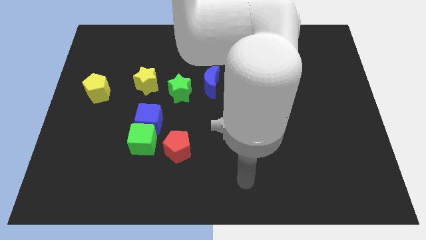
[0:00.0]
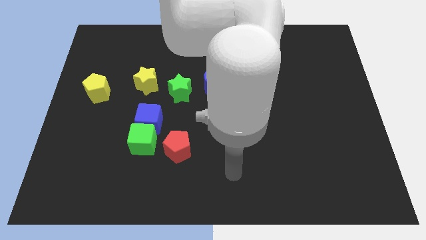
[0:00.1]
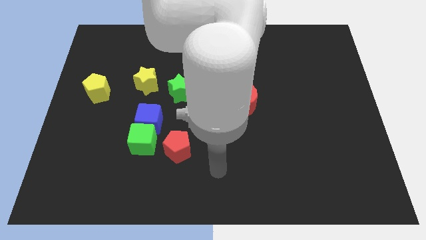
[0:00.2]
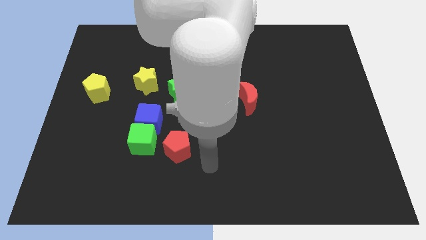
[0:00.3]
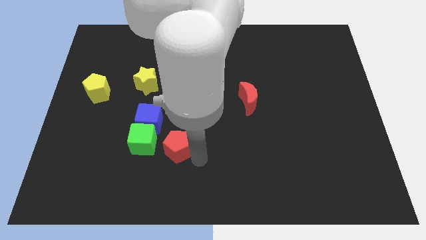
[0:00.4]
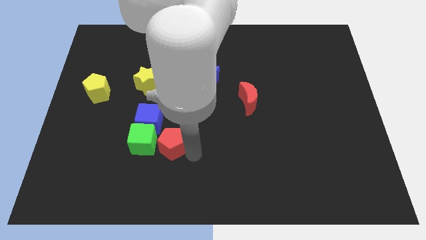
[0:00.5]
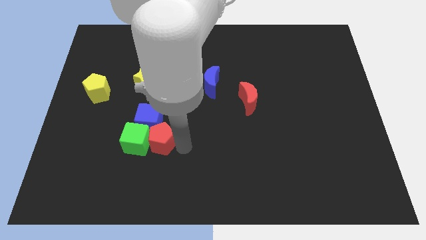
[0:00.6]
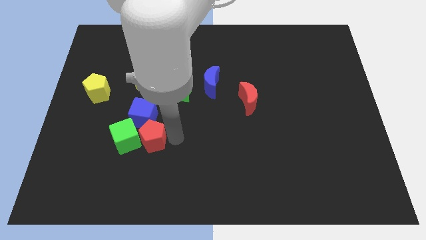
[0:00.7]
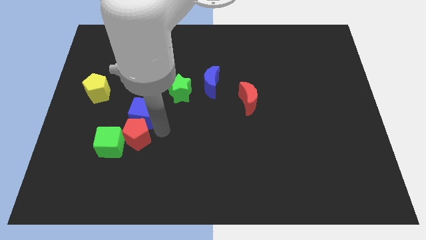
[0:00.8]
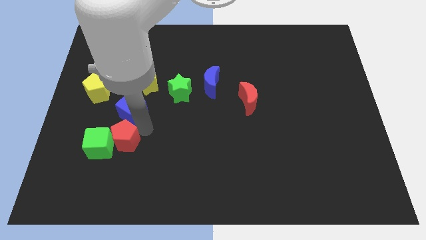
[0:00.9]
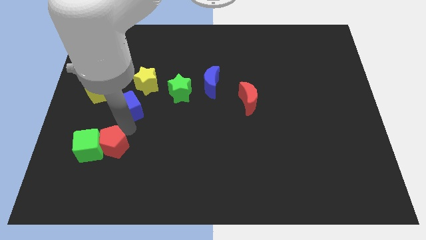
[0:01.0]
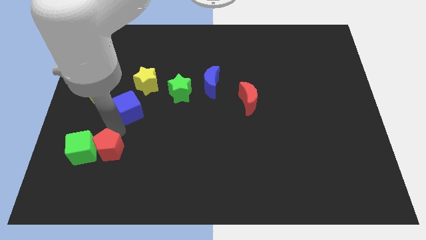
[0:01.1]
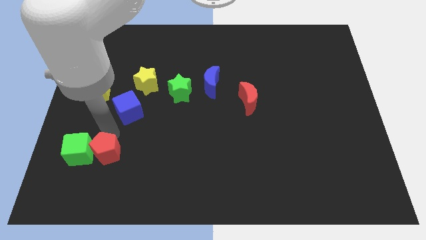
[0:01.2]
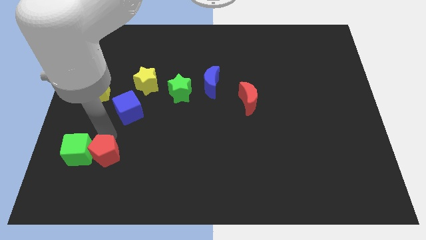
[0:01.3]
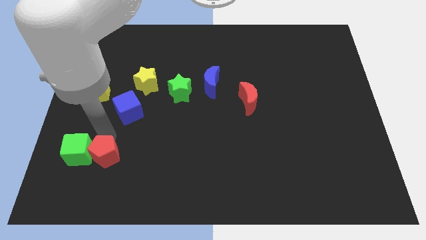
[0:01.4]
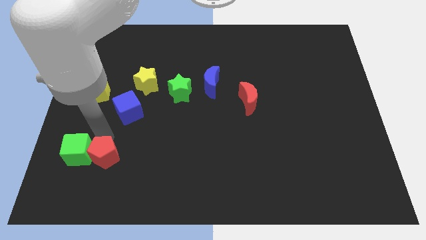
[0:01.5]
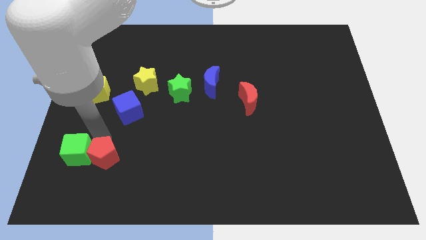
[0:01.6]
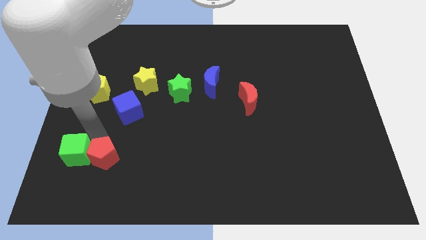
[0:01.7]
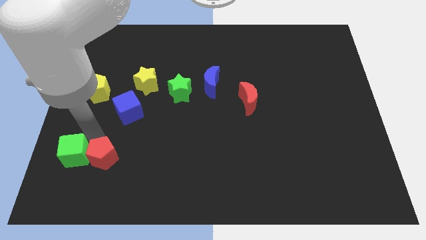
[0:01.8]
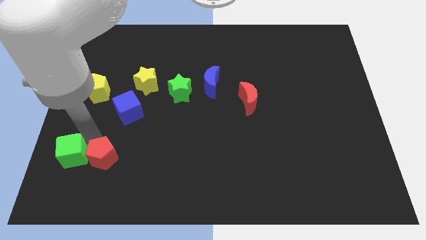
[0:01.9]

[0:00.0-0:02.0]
separate the green cube from the blue cube and red pentagon

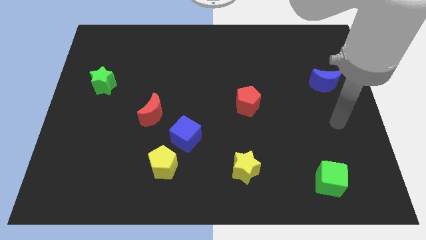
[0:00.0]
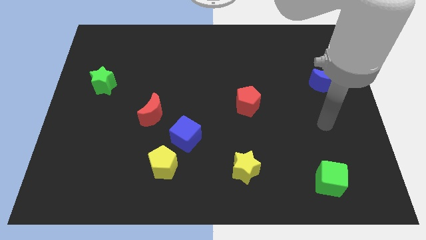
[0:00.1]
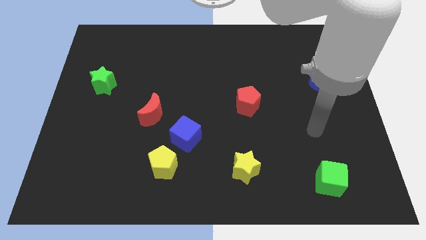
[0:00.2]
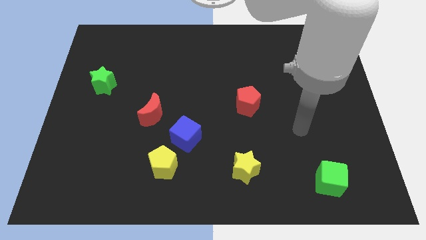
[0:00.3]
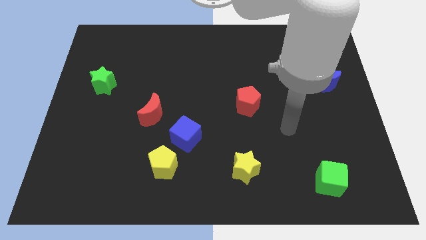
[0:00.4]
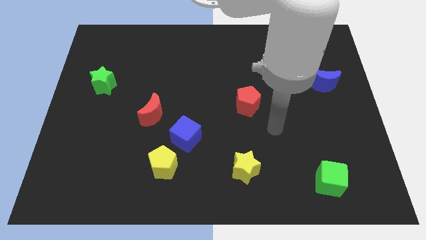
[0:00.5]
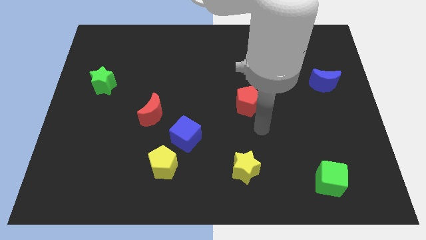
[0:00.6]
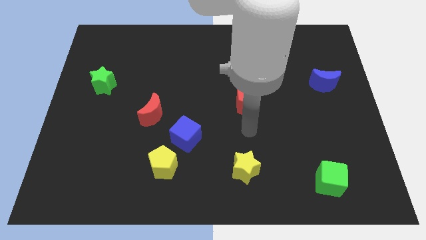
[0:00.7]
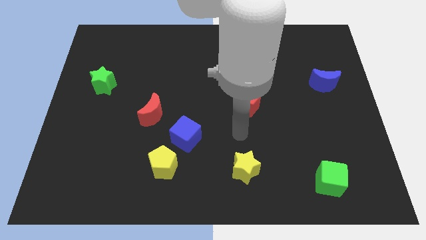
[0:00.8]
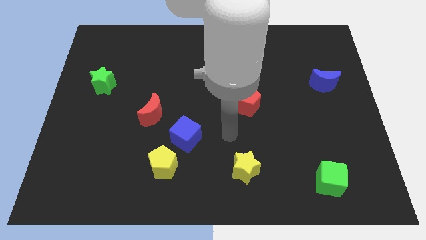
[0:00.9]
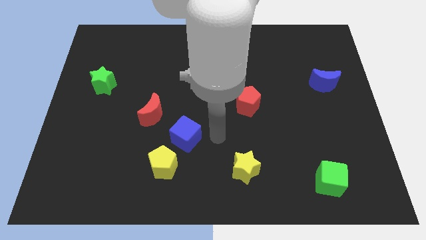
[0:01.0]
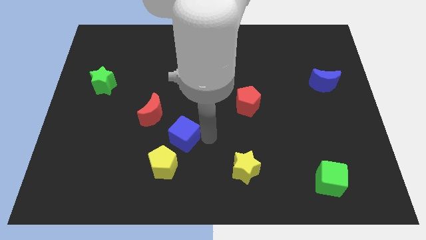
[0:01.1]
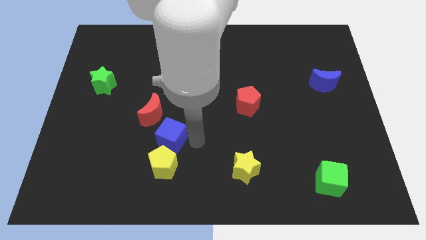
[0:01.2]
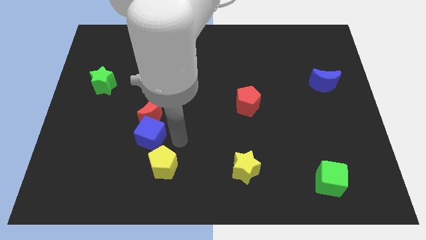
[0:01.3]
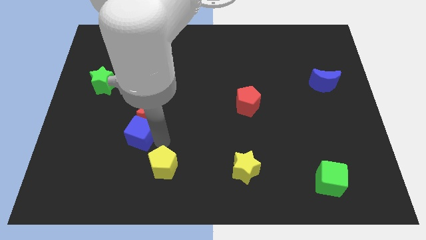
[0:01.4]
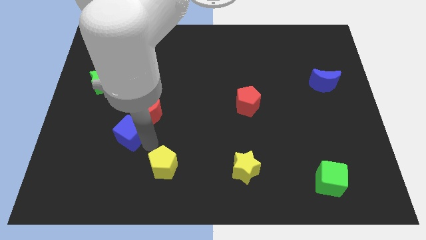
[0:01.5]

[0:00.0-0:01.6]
move the yellow pentagon away from the blue cube

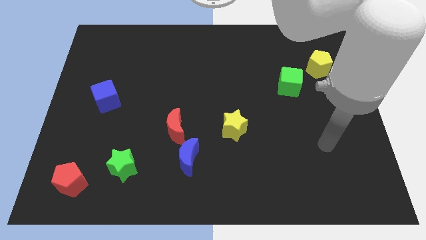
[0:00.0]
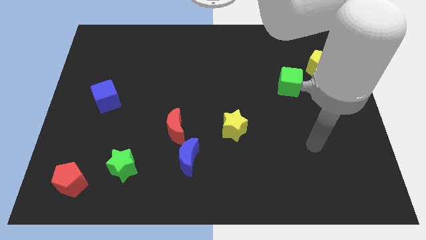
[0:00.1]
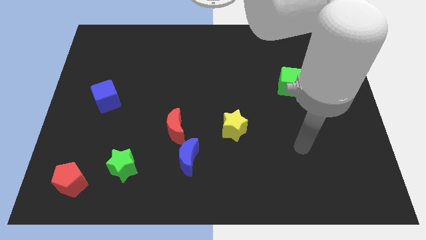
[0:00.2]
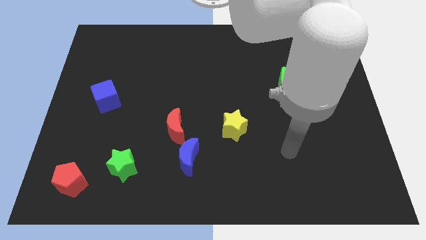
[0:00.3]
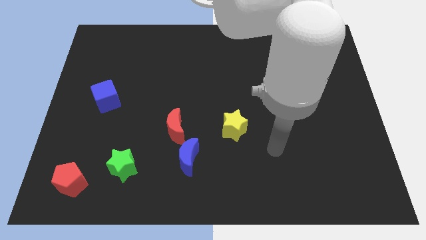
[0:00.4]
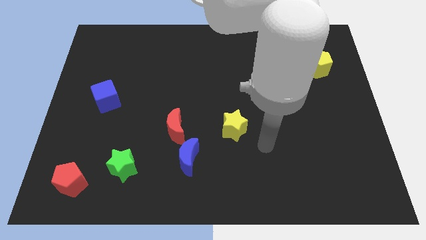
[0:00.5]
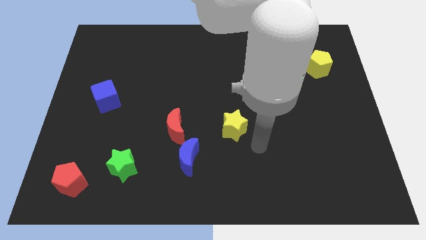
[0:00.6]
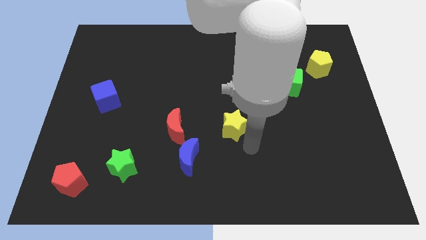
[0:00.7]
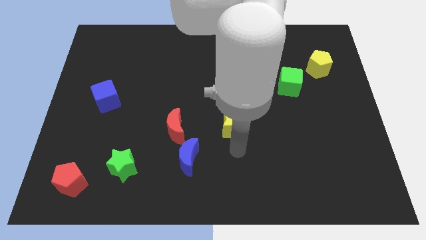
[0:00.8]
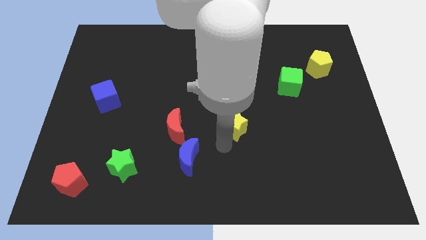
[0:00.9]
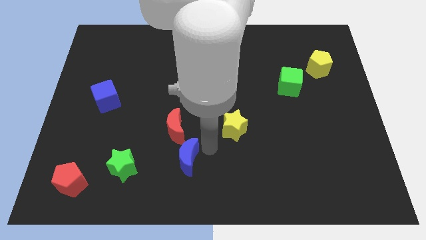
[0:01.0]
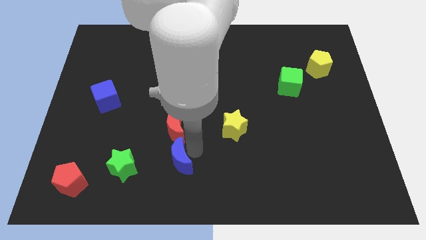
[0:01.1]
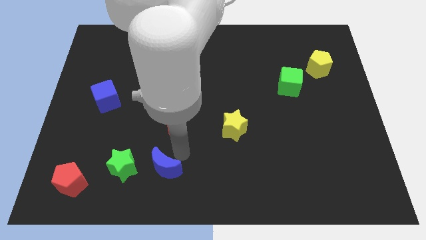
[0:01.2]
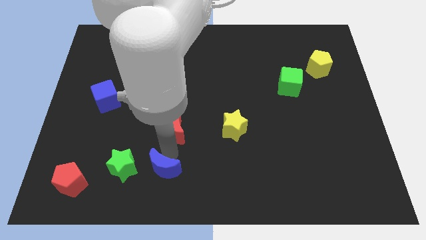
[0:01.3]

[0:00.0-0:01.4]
move the red moon away from the blue moon

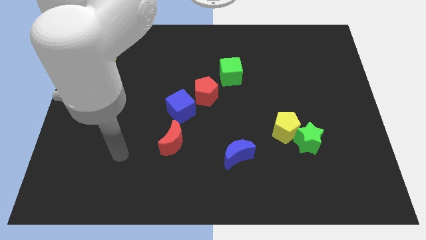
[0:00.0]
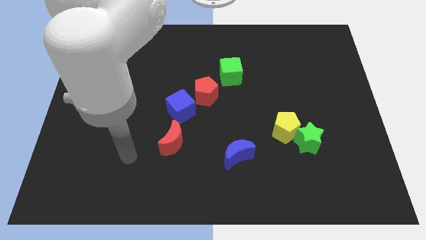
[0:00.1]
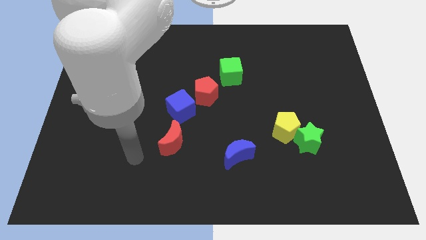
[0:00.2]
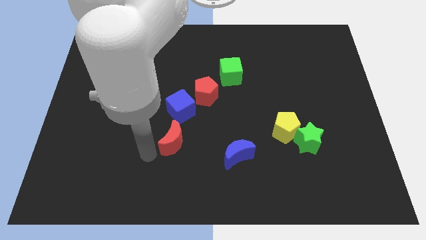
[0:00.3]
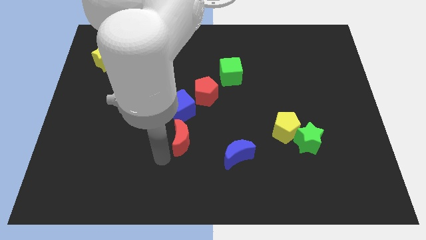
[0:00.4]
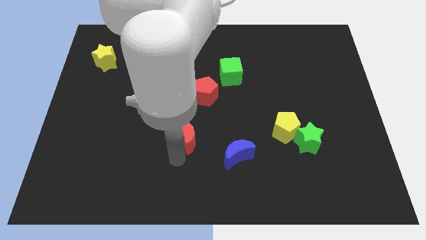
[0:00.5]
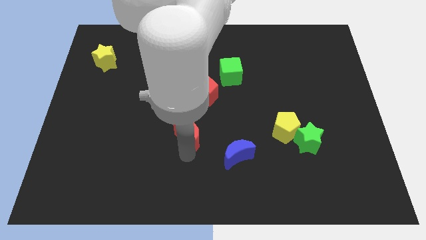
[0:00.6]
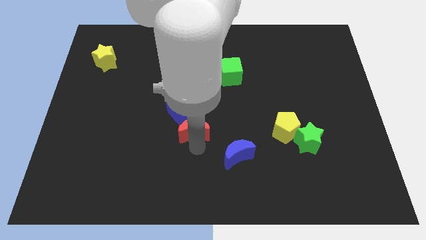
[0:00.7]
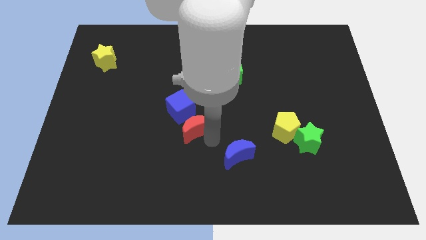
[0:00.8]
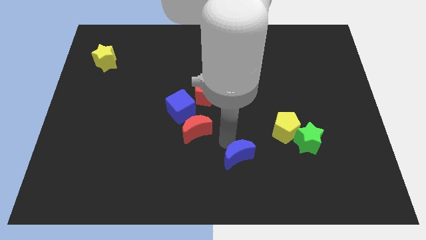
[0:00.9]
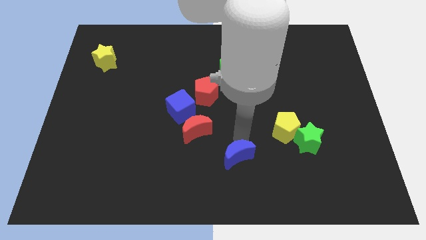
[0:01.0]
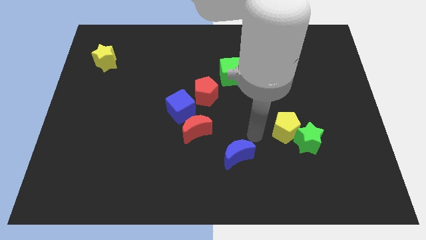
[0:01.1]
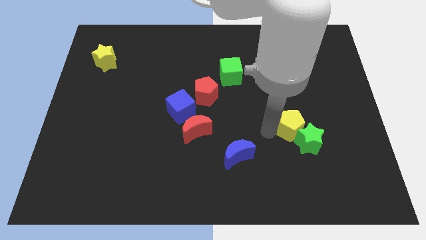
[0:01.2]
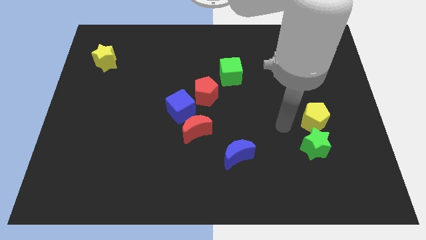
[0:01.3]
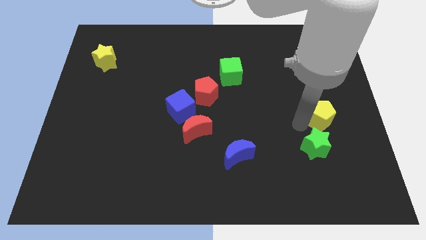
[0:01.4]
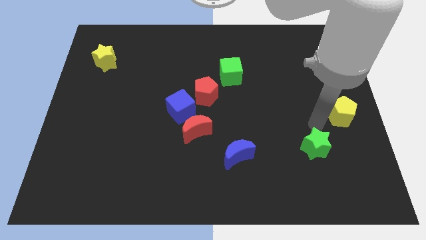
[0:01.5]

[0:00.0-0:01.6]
separate the green star from the yellow pentagon

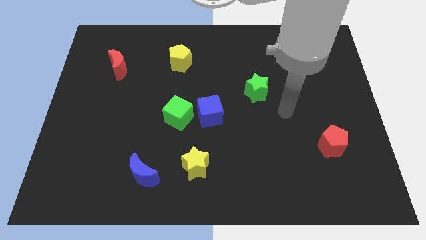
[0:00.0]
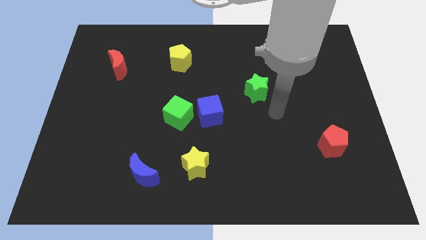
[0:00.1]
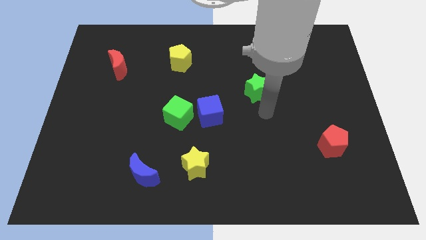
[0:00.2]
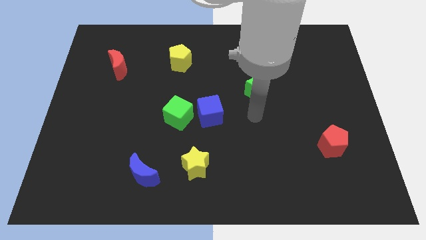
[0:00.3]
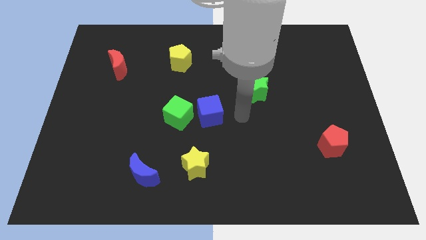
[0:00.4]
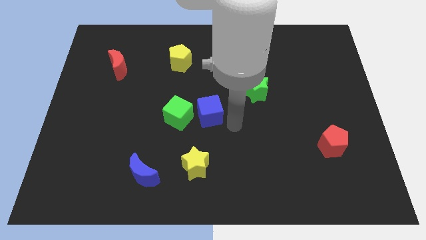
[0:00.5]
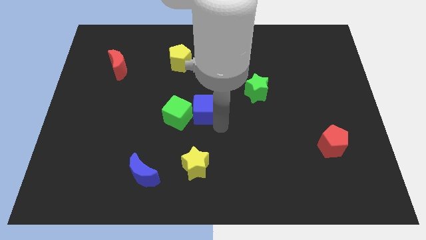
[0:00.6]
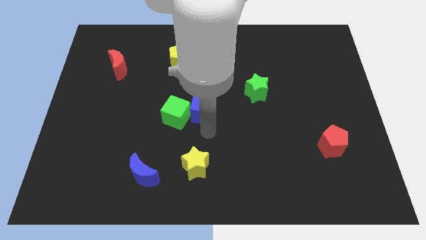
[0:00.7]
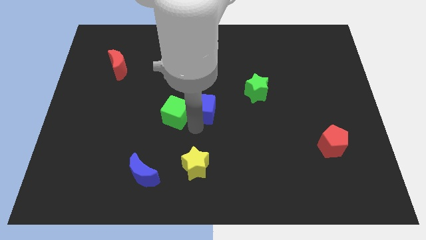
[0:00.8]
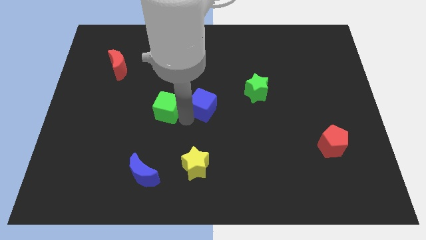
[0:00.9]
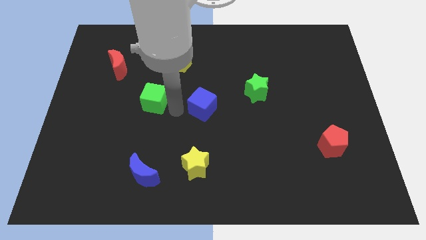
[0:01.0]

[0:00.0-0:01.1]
separate the blue cube from the green cube

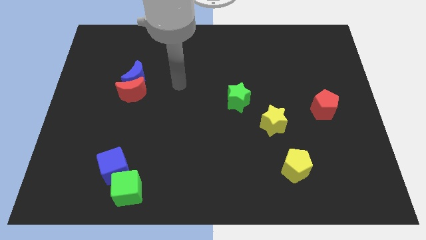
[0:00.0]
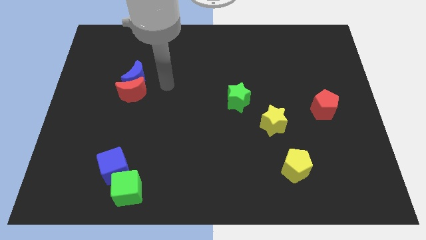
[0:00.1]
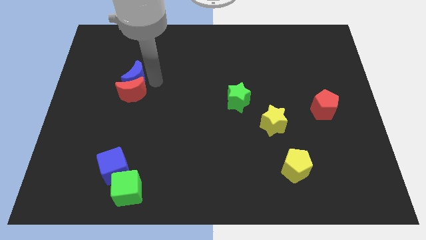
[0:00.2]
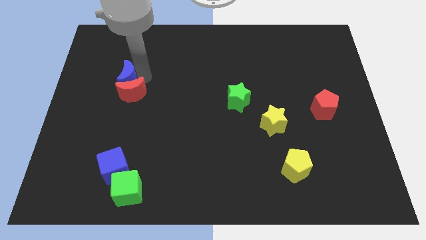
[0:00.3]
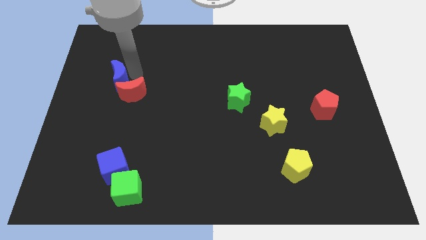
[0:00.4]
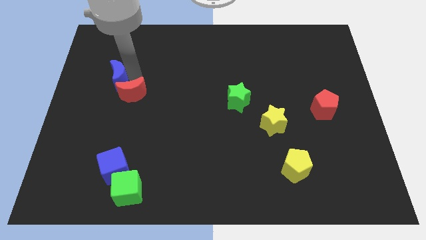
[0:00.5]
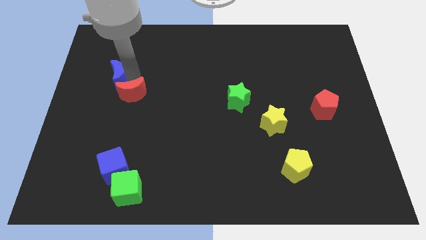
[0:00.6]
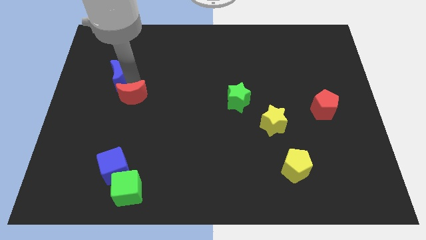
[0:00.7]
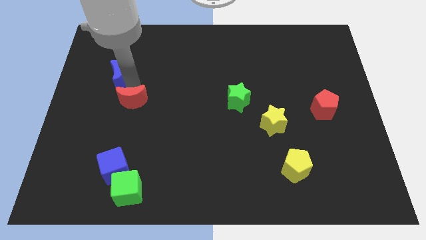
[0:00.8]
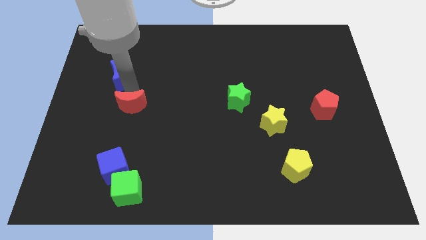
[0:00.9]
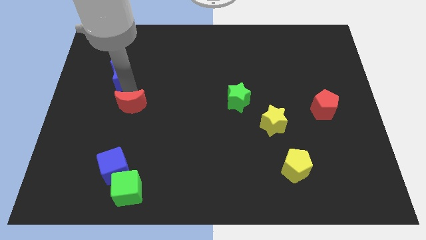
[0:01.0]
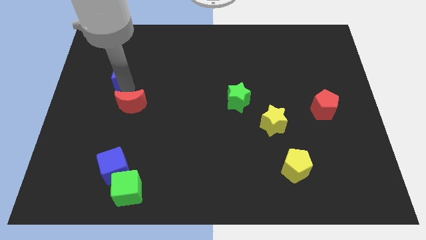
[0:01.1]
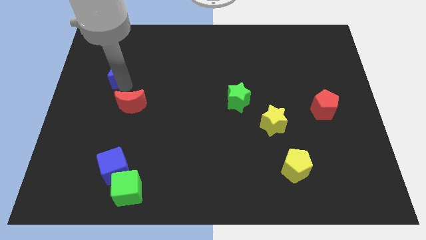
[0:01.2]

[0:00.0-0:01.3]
separate the red moon from the blue moon
